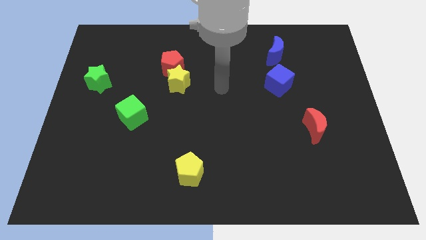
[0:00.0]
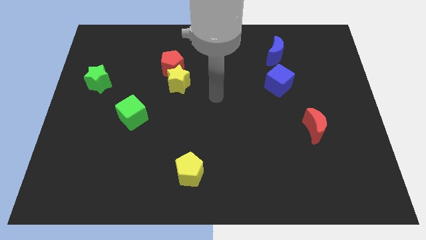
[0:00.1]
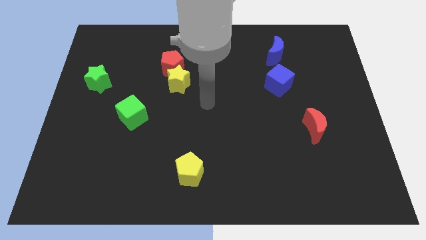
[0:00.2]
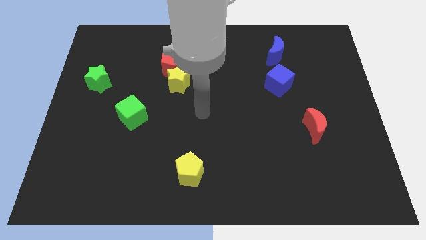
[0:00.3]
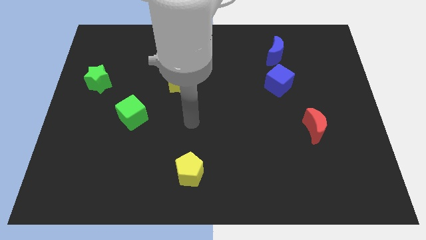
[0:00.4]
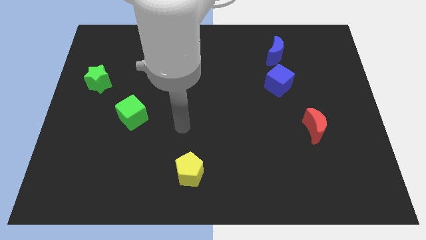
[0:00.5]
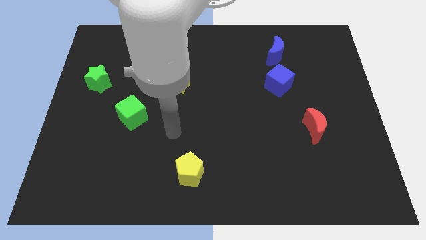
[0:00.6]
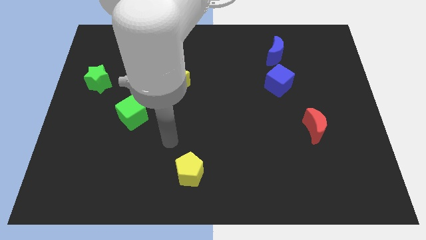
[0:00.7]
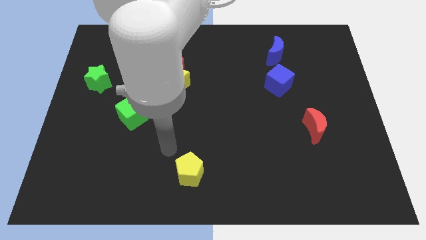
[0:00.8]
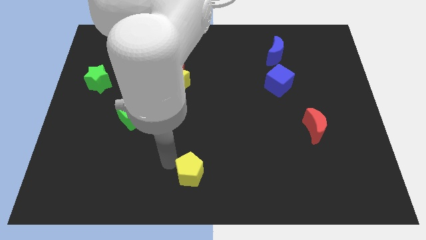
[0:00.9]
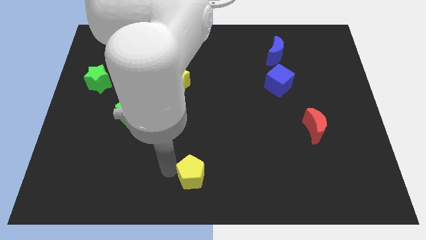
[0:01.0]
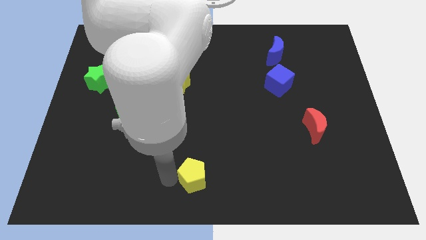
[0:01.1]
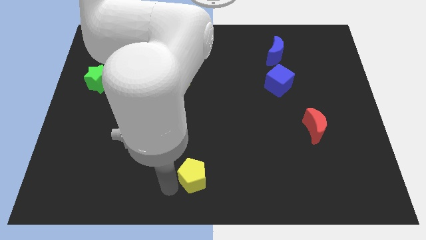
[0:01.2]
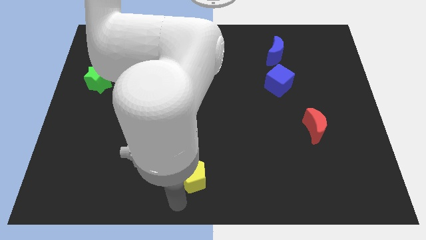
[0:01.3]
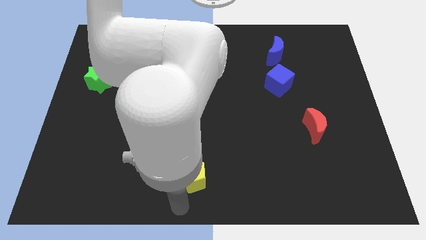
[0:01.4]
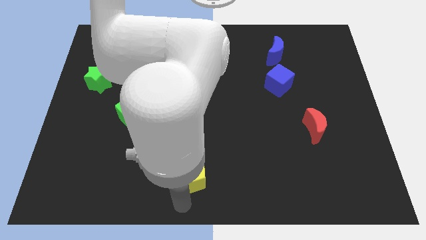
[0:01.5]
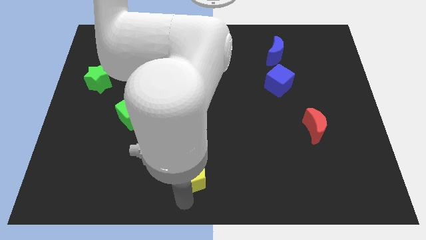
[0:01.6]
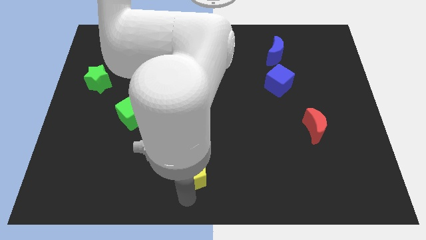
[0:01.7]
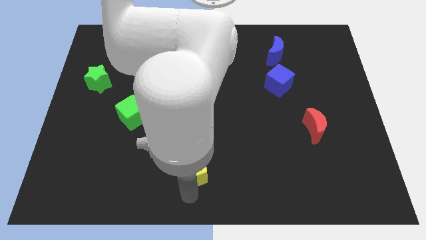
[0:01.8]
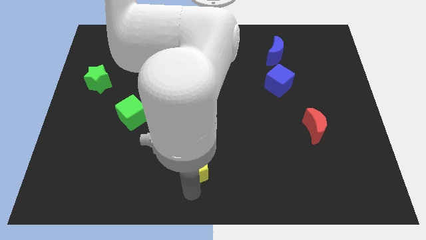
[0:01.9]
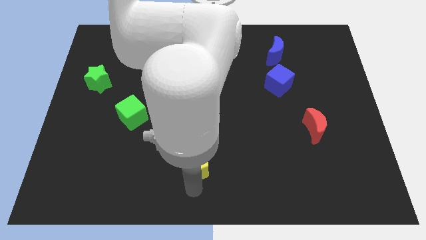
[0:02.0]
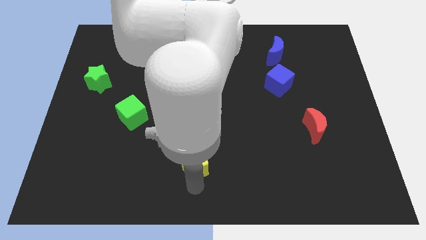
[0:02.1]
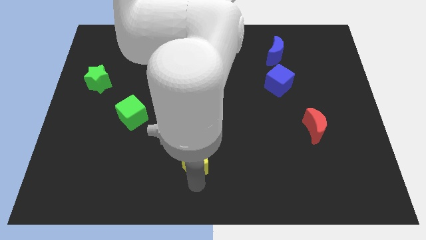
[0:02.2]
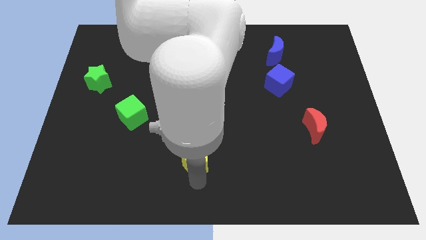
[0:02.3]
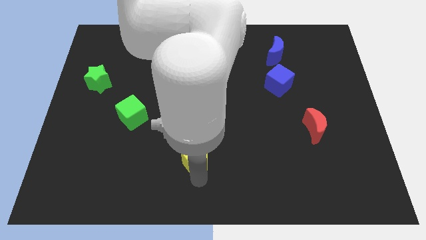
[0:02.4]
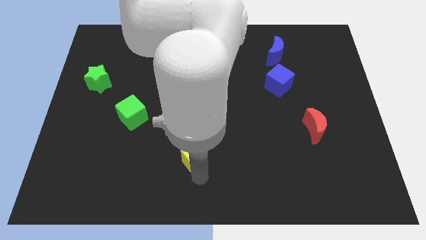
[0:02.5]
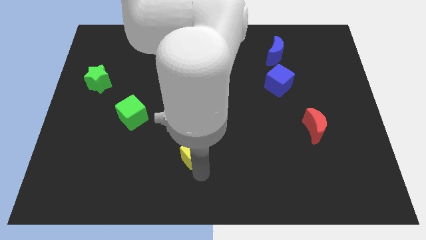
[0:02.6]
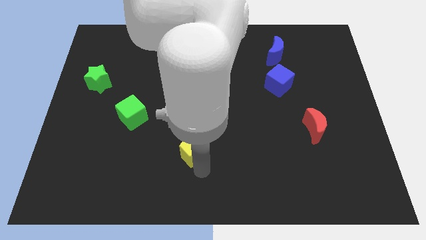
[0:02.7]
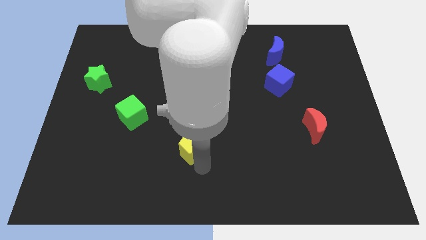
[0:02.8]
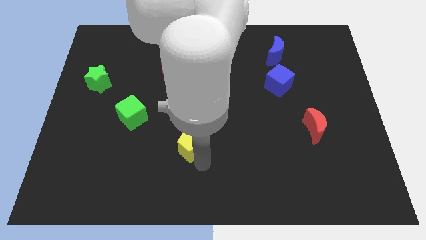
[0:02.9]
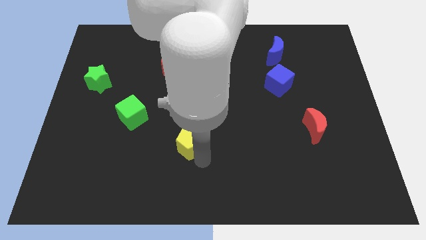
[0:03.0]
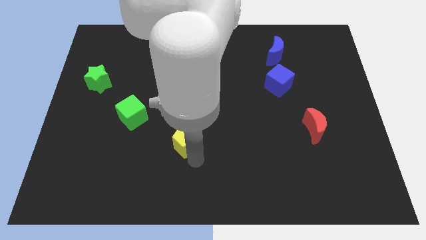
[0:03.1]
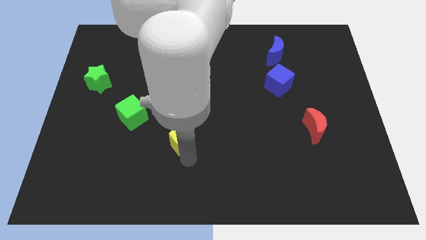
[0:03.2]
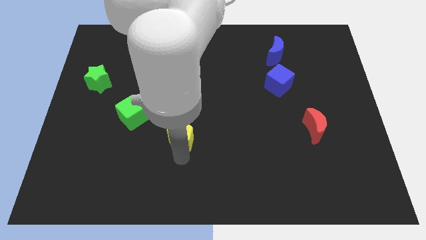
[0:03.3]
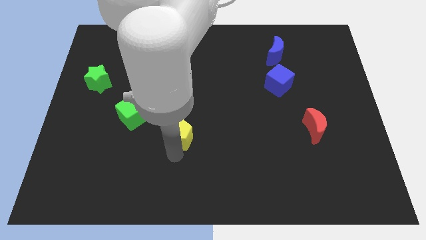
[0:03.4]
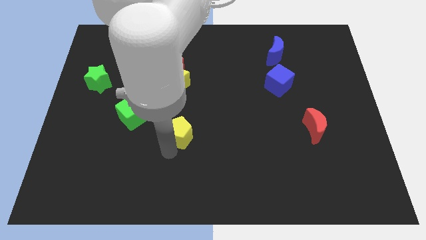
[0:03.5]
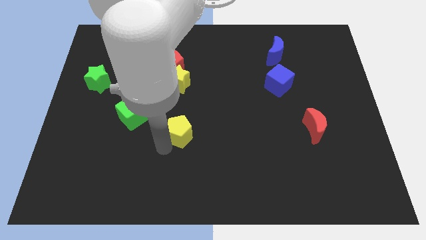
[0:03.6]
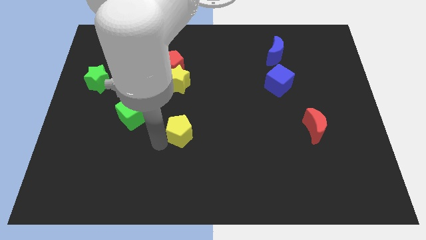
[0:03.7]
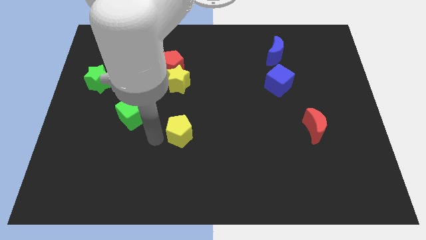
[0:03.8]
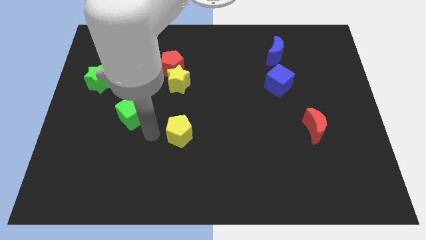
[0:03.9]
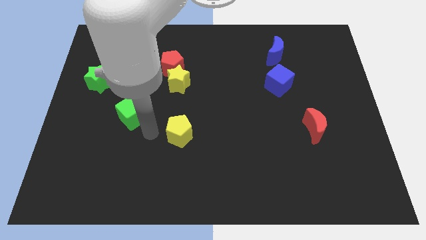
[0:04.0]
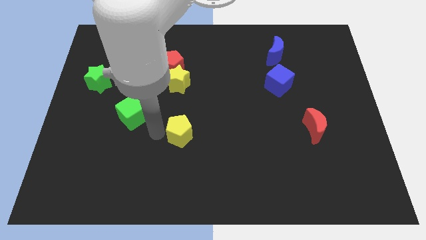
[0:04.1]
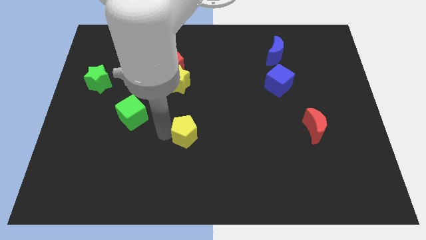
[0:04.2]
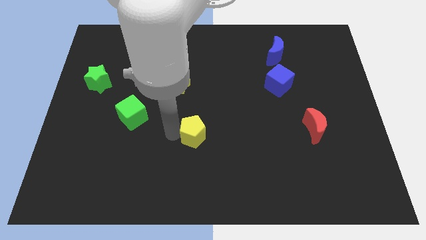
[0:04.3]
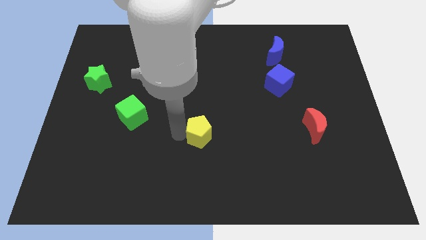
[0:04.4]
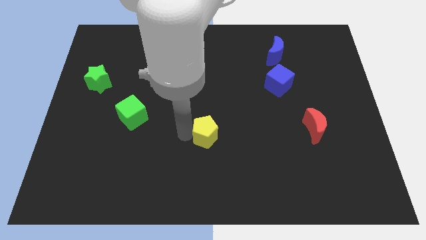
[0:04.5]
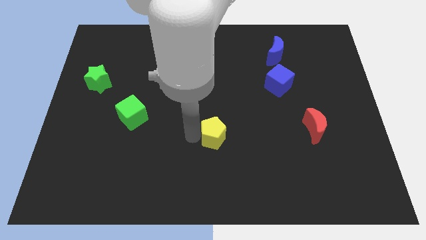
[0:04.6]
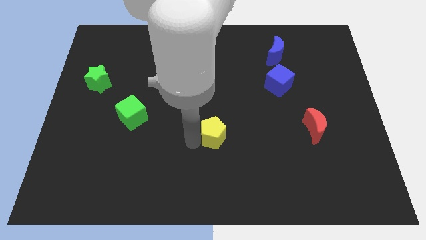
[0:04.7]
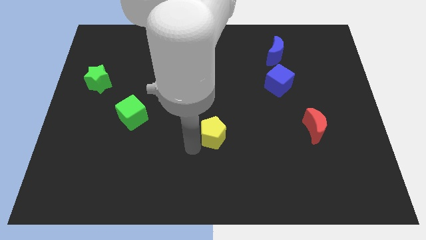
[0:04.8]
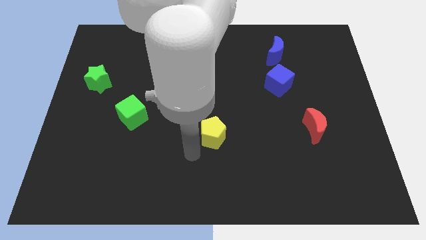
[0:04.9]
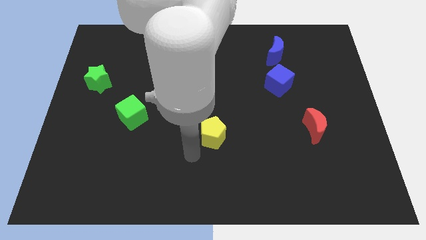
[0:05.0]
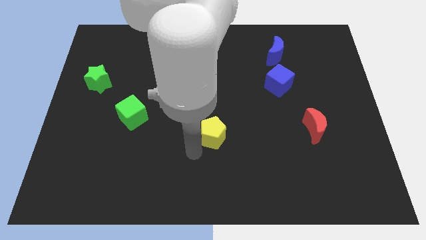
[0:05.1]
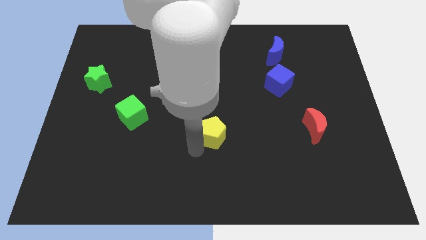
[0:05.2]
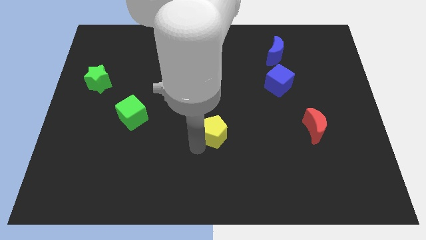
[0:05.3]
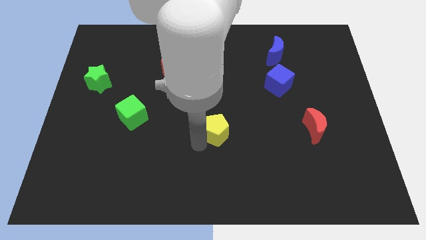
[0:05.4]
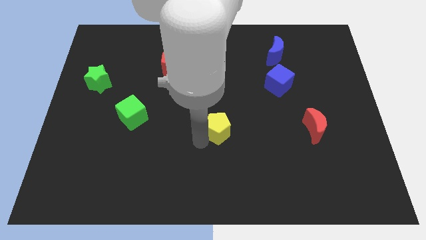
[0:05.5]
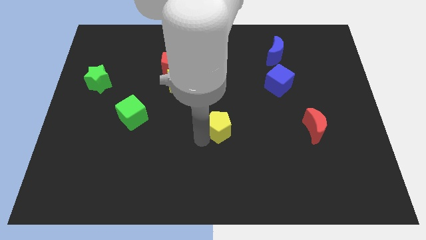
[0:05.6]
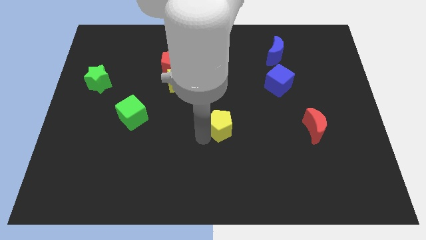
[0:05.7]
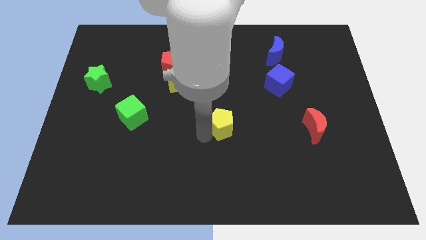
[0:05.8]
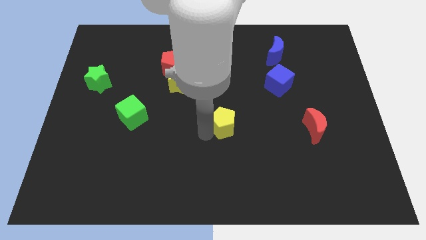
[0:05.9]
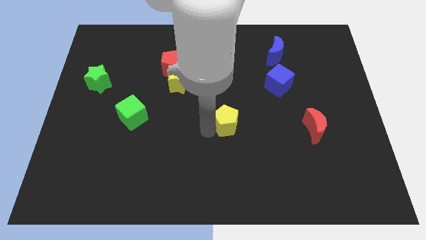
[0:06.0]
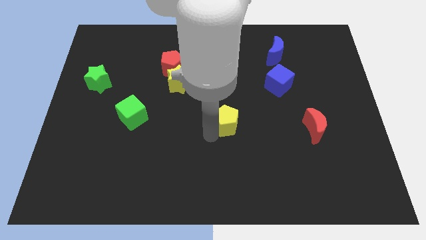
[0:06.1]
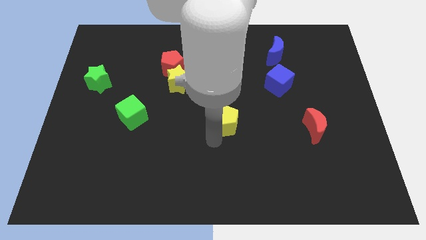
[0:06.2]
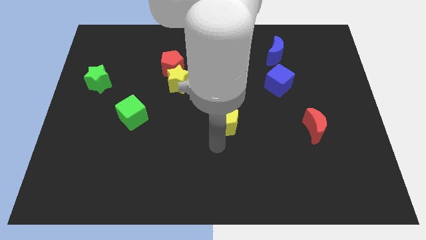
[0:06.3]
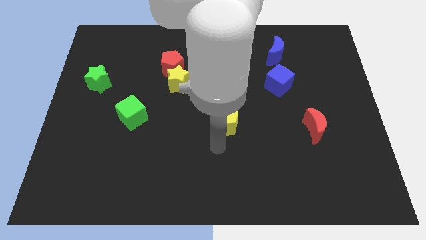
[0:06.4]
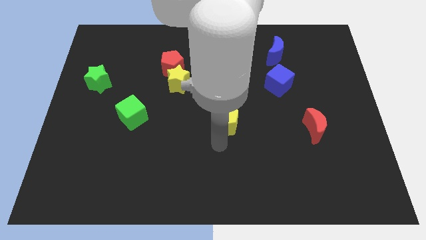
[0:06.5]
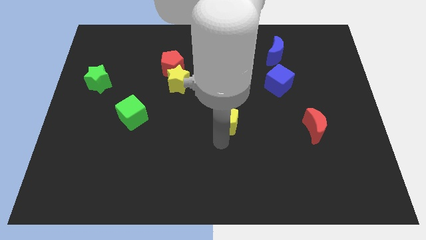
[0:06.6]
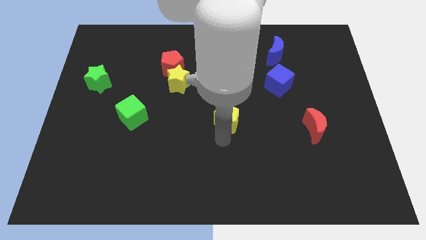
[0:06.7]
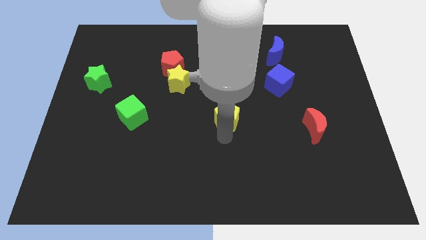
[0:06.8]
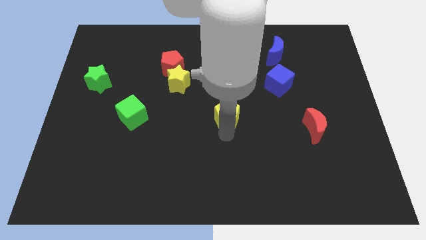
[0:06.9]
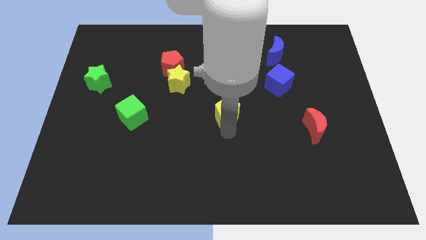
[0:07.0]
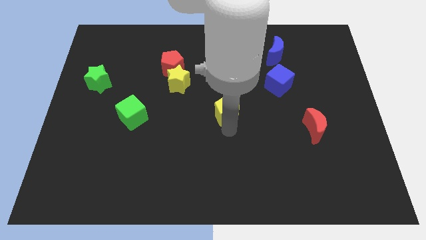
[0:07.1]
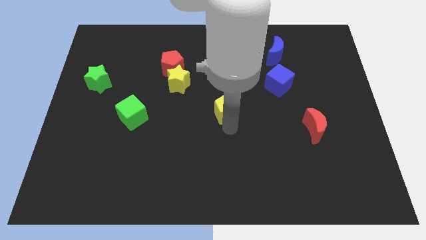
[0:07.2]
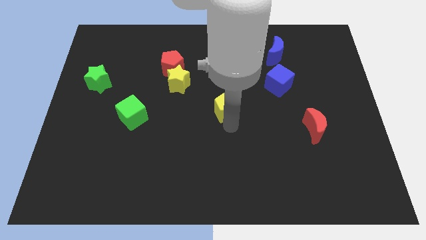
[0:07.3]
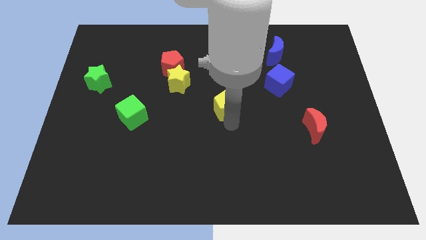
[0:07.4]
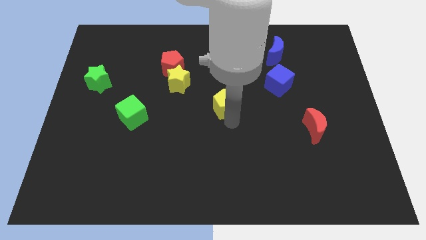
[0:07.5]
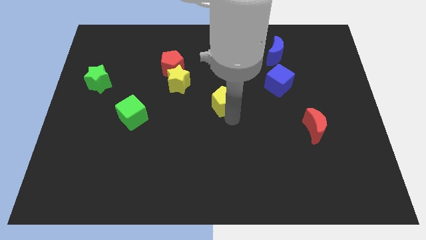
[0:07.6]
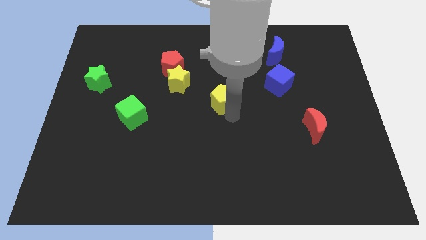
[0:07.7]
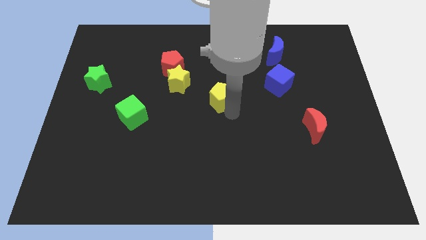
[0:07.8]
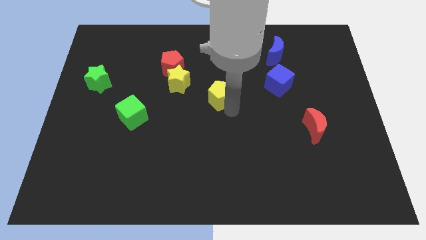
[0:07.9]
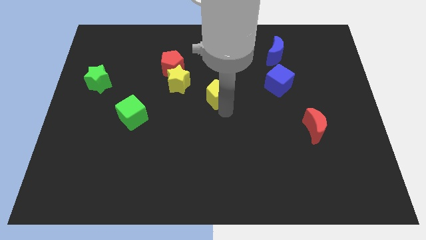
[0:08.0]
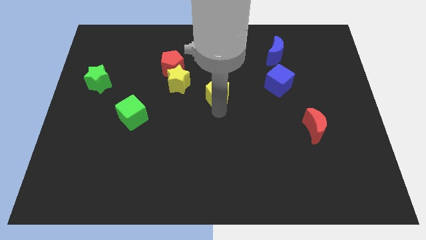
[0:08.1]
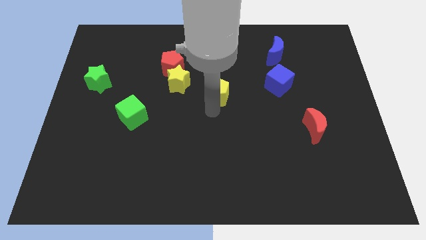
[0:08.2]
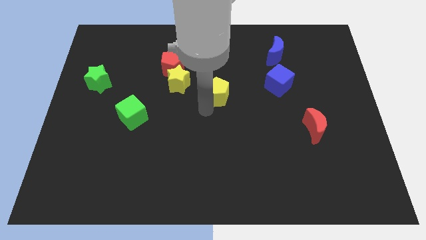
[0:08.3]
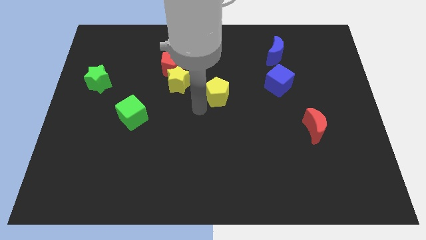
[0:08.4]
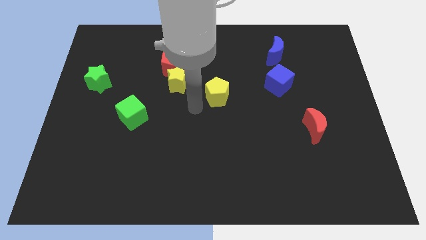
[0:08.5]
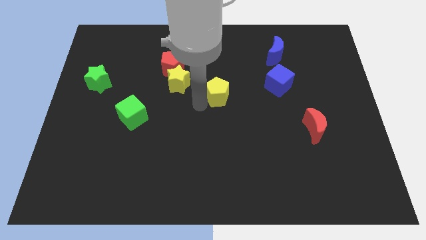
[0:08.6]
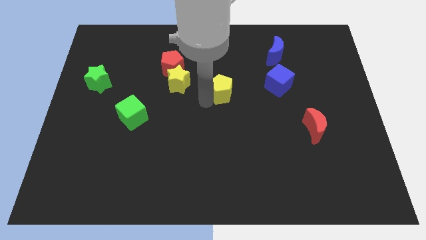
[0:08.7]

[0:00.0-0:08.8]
push the yellow pentagon to the left of the blue cube
